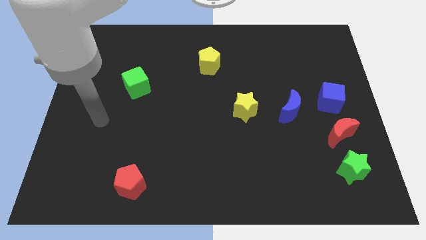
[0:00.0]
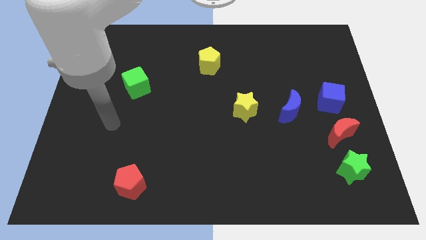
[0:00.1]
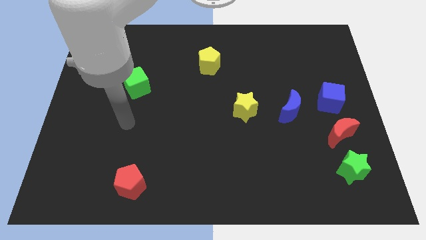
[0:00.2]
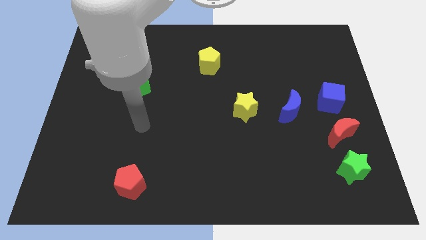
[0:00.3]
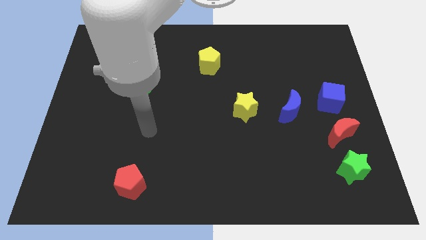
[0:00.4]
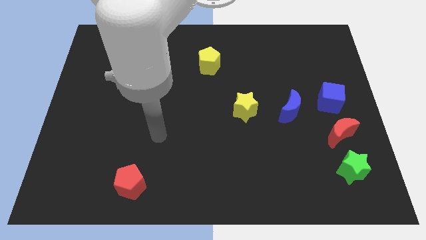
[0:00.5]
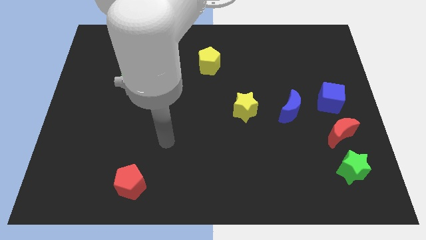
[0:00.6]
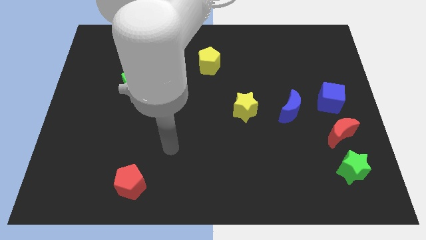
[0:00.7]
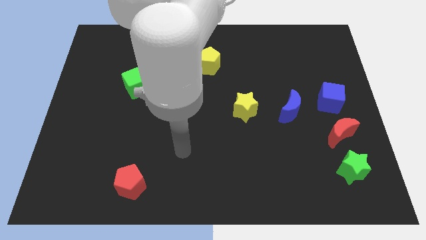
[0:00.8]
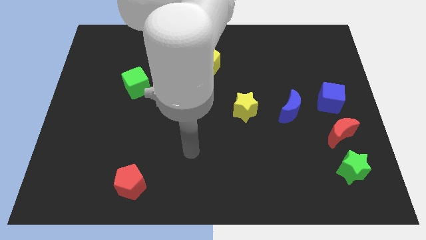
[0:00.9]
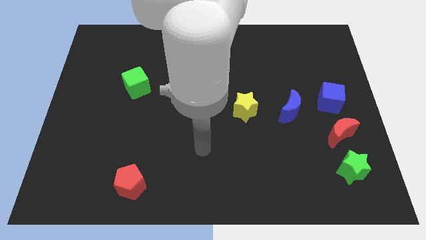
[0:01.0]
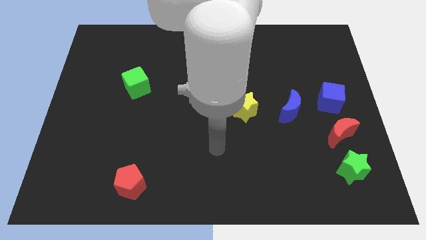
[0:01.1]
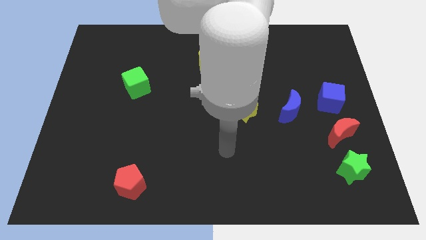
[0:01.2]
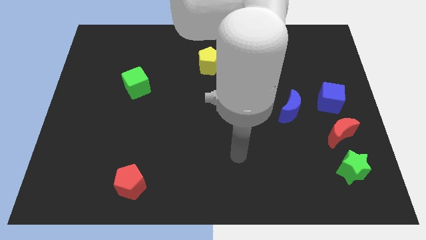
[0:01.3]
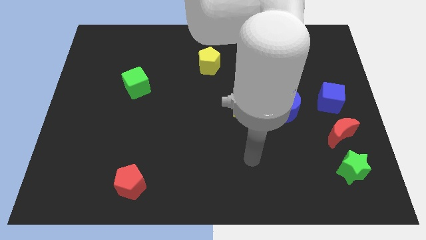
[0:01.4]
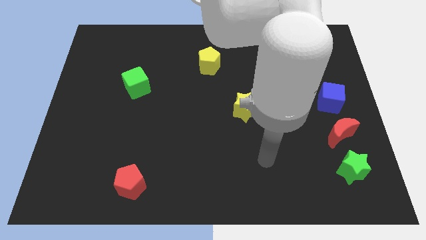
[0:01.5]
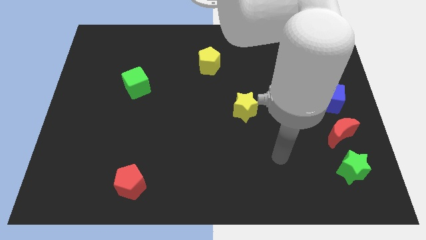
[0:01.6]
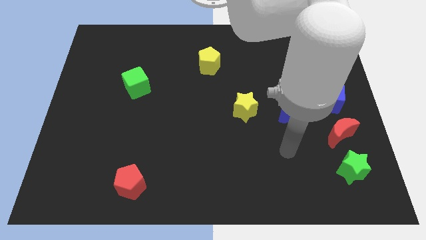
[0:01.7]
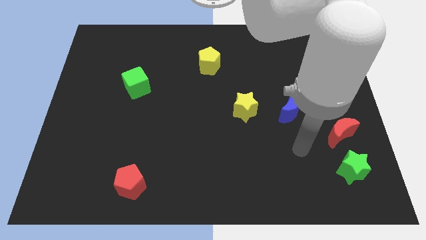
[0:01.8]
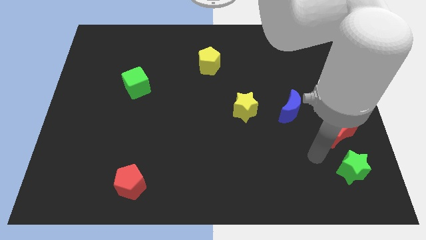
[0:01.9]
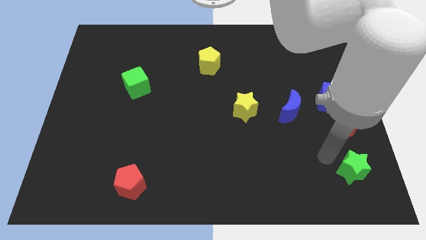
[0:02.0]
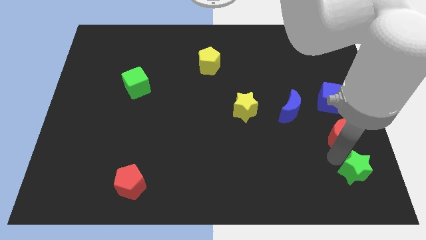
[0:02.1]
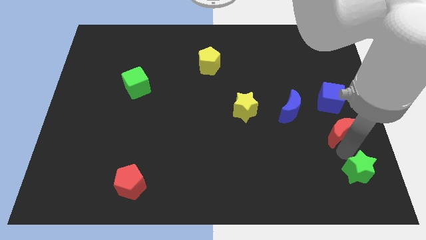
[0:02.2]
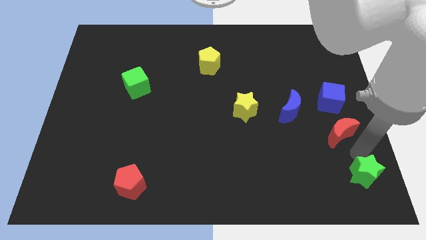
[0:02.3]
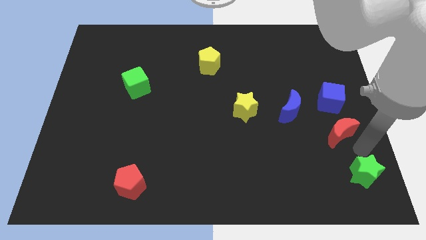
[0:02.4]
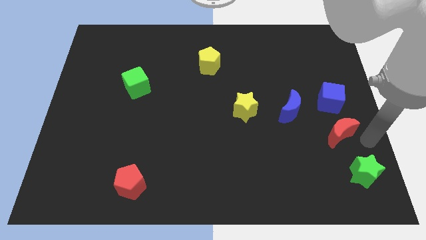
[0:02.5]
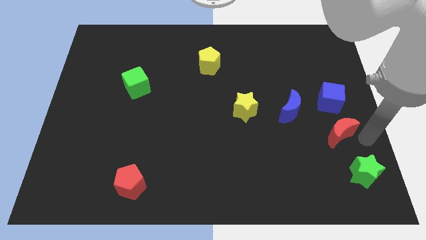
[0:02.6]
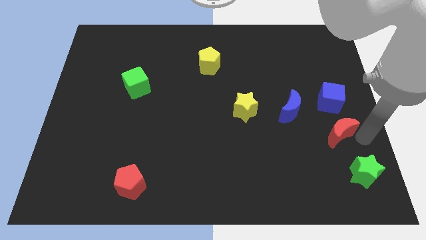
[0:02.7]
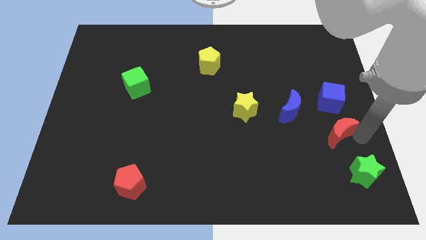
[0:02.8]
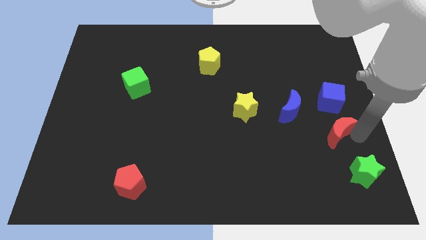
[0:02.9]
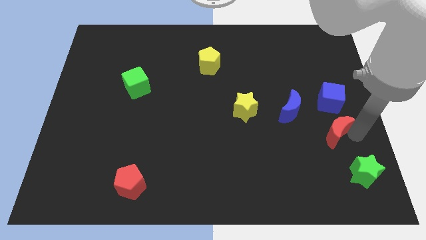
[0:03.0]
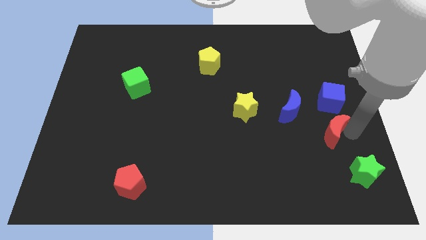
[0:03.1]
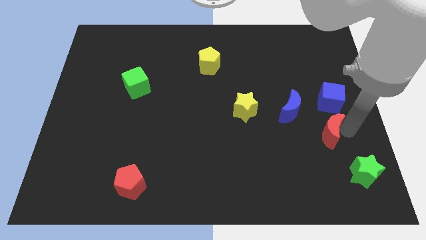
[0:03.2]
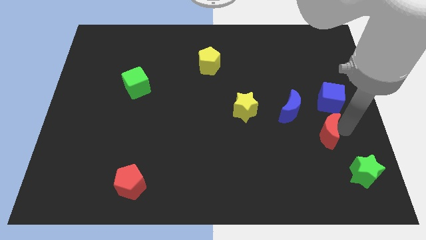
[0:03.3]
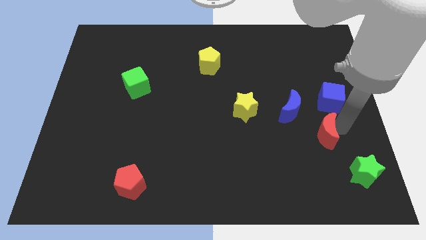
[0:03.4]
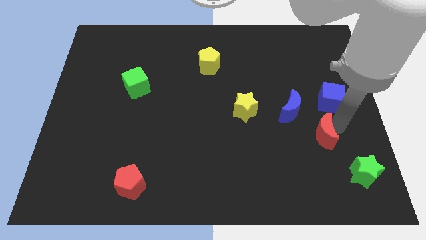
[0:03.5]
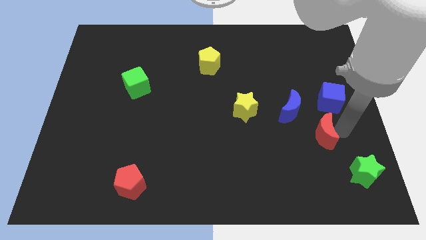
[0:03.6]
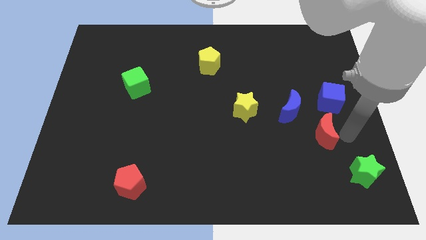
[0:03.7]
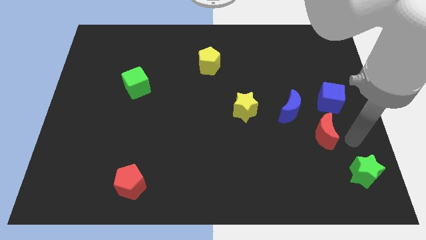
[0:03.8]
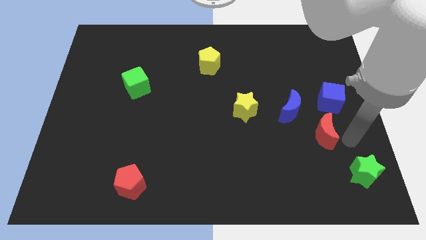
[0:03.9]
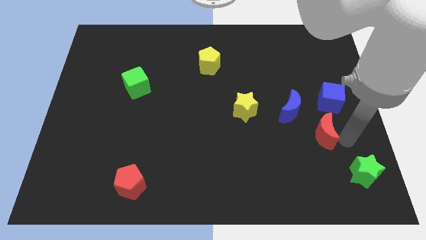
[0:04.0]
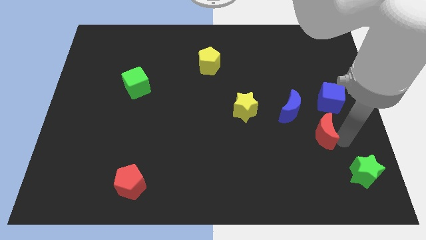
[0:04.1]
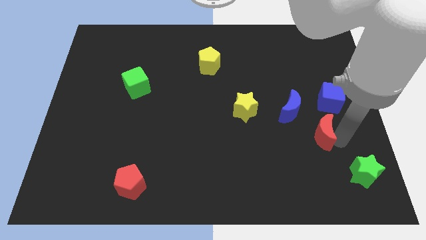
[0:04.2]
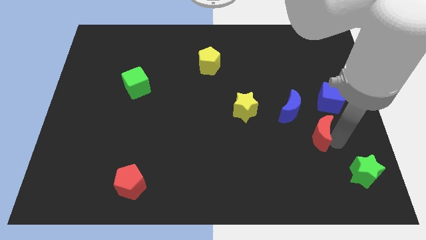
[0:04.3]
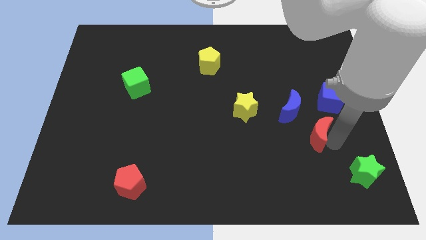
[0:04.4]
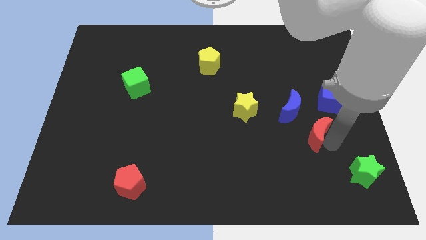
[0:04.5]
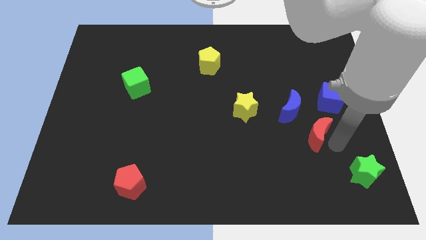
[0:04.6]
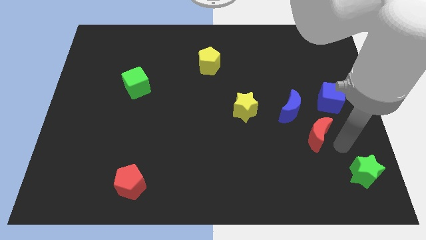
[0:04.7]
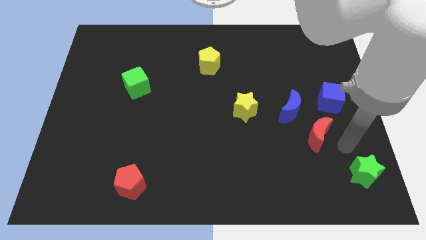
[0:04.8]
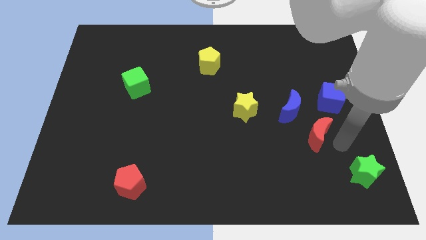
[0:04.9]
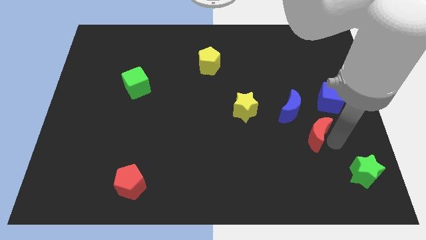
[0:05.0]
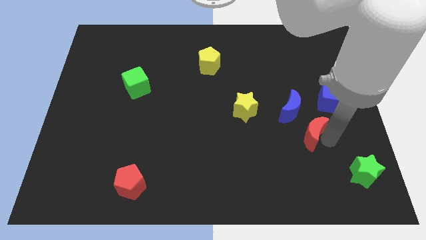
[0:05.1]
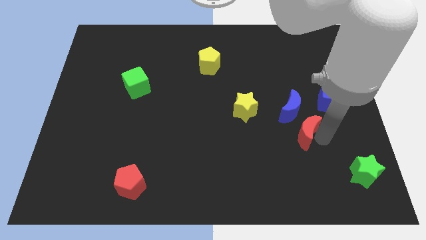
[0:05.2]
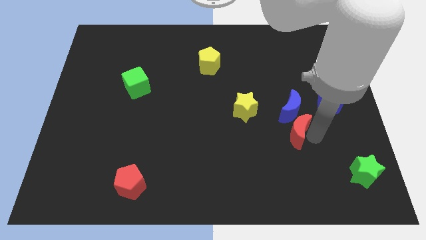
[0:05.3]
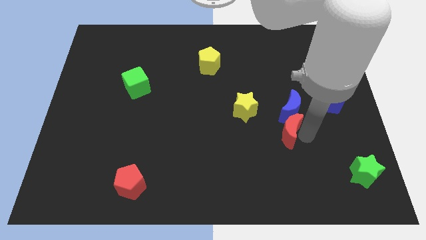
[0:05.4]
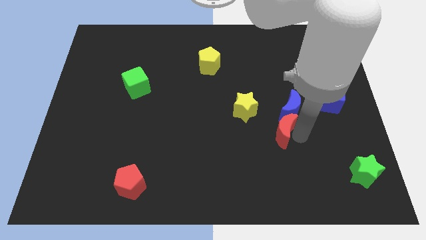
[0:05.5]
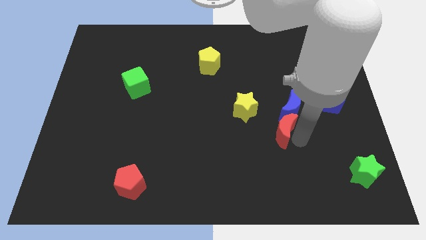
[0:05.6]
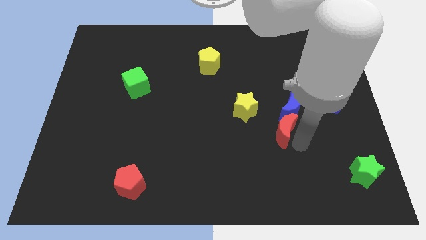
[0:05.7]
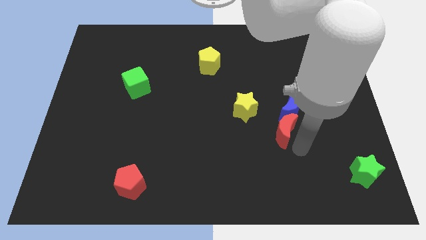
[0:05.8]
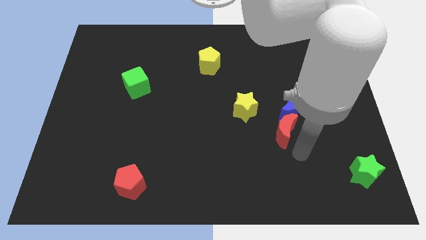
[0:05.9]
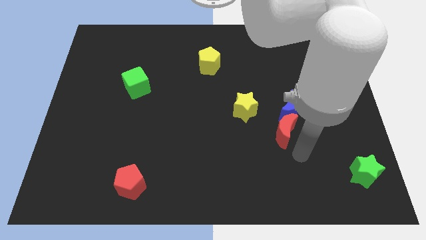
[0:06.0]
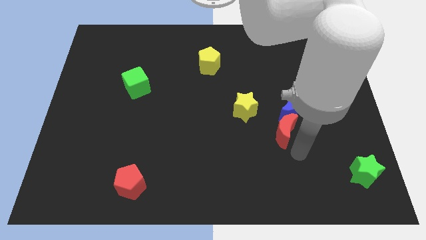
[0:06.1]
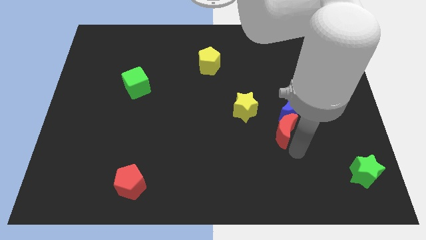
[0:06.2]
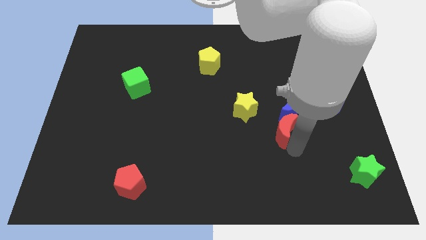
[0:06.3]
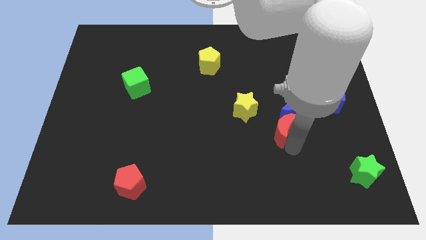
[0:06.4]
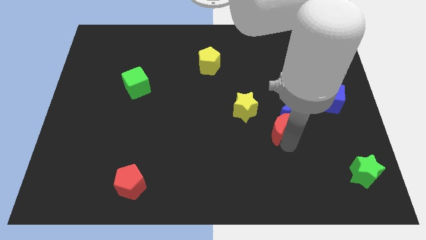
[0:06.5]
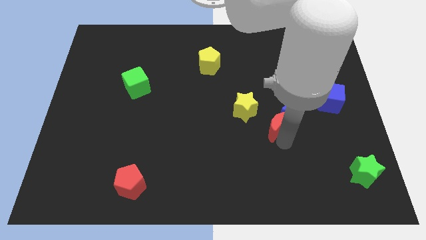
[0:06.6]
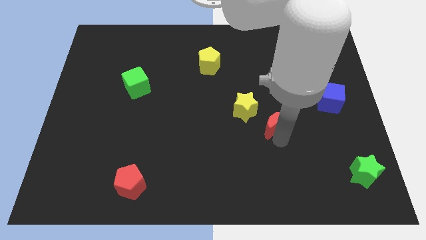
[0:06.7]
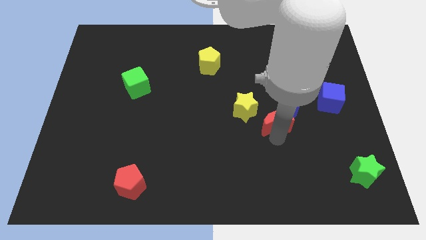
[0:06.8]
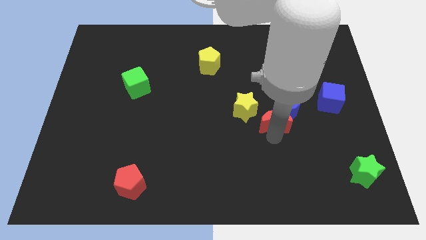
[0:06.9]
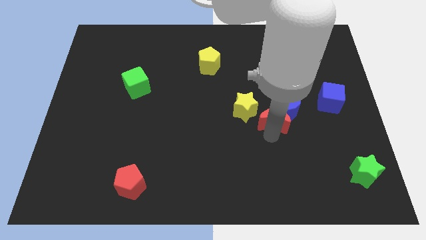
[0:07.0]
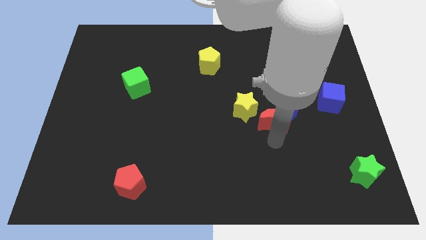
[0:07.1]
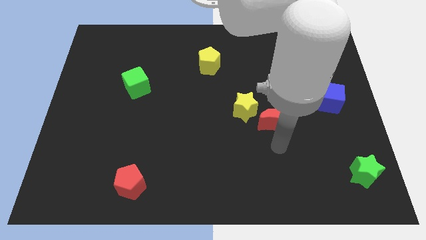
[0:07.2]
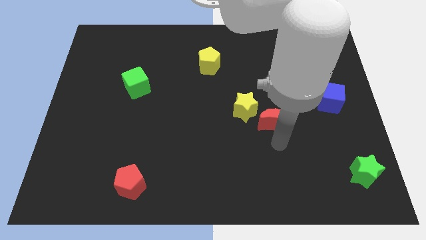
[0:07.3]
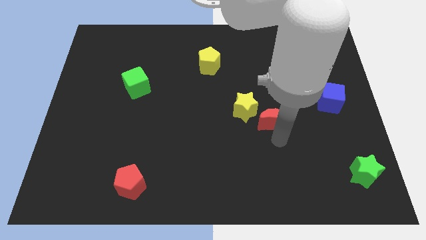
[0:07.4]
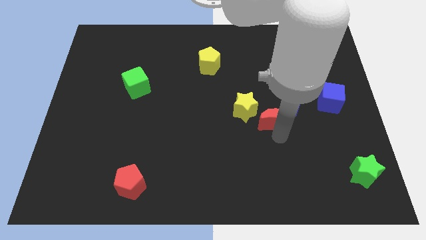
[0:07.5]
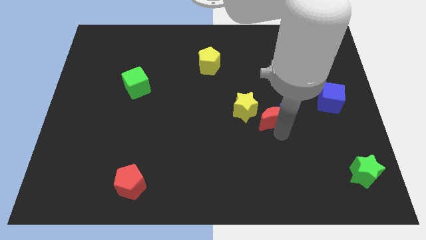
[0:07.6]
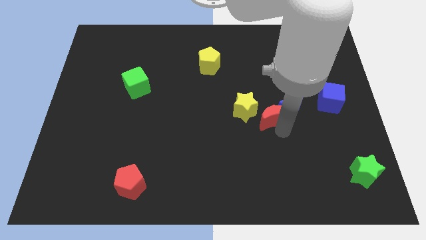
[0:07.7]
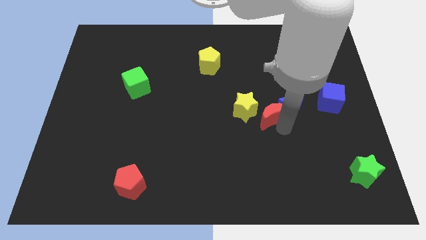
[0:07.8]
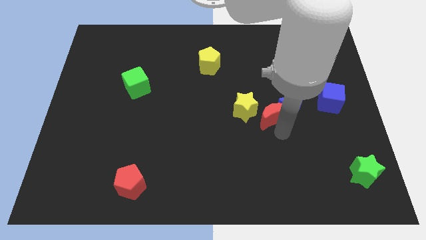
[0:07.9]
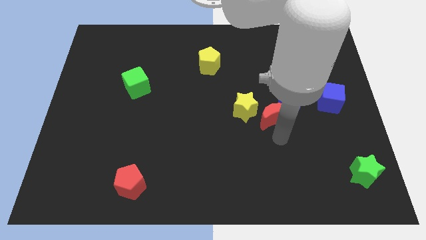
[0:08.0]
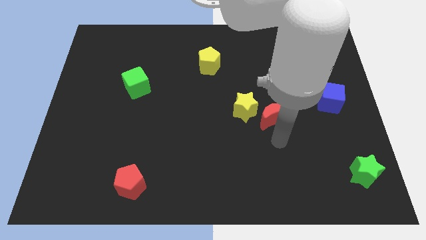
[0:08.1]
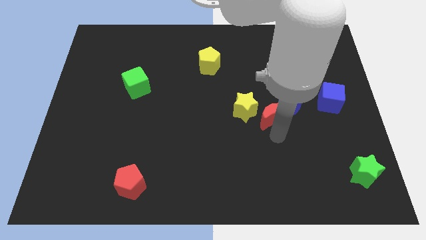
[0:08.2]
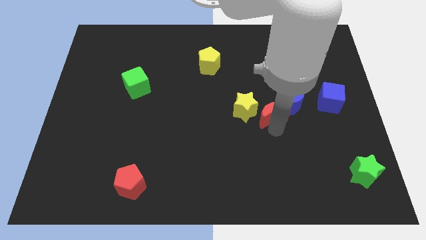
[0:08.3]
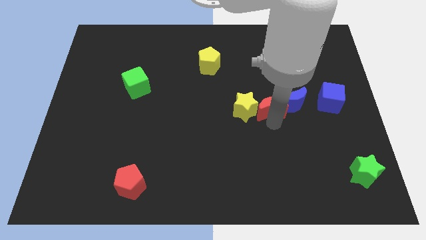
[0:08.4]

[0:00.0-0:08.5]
push the red moon diagonally up and to the right of the yellow star
